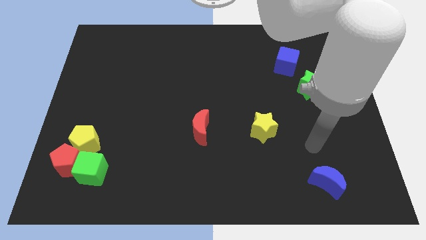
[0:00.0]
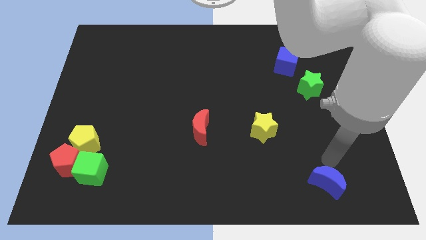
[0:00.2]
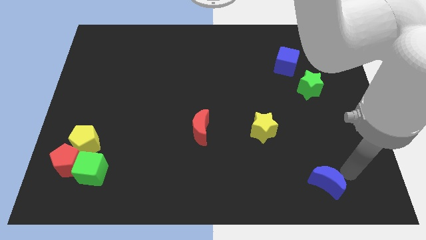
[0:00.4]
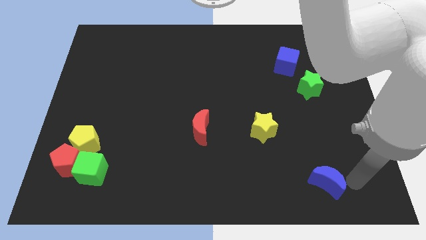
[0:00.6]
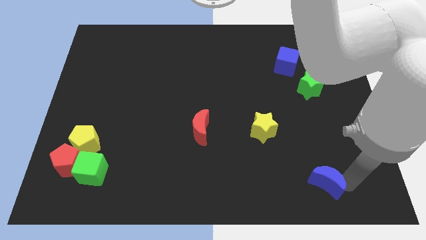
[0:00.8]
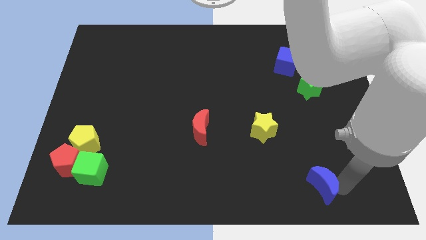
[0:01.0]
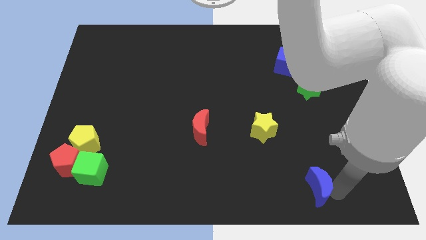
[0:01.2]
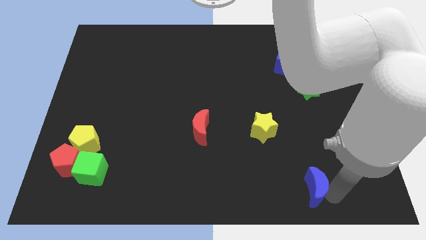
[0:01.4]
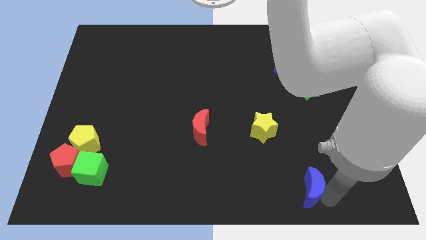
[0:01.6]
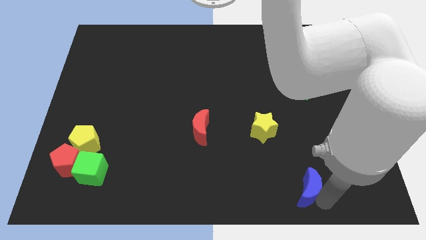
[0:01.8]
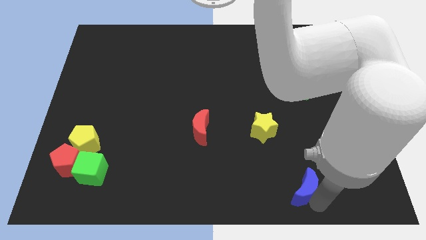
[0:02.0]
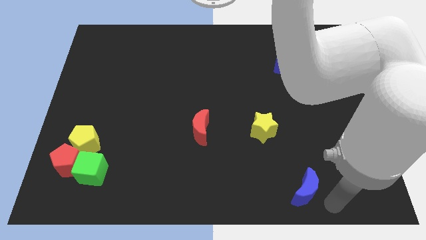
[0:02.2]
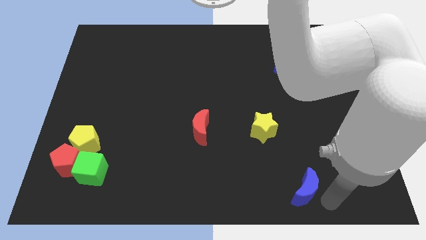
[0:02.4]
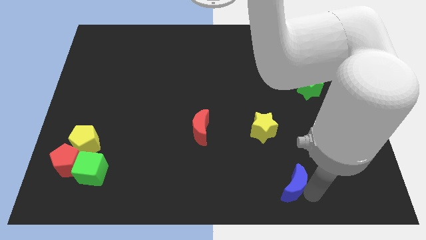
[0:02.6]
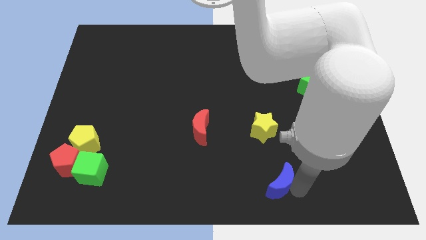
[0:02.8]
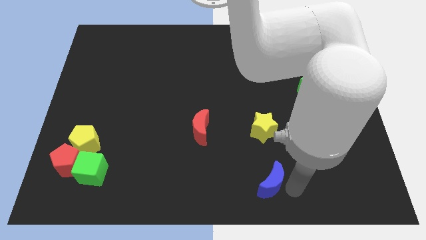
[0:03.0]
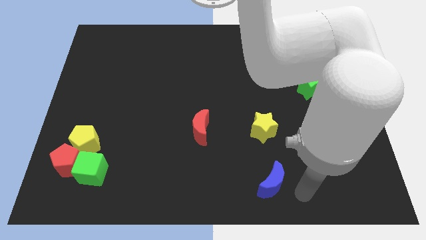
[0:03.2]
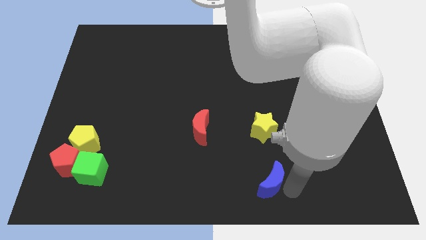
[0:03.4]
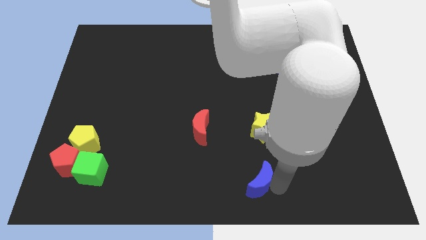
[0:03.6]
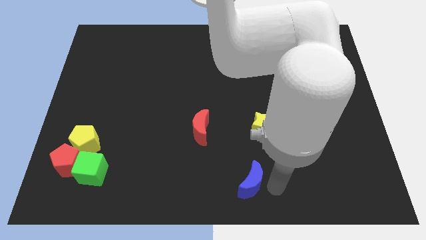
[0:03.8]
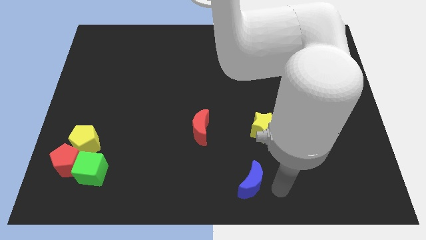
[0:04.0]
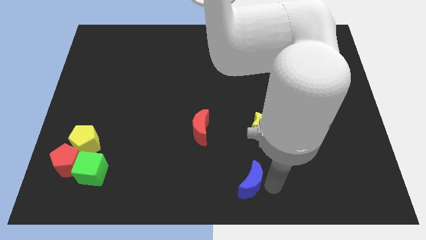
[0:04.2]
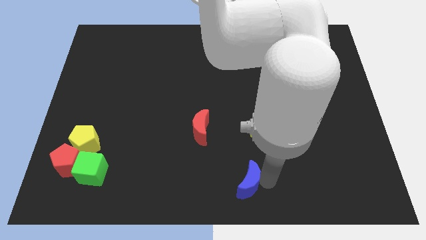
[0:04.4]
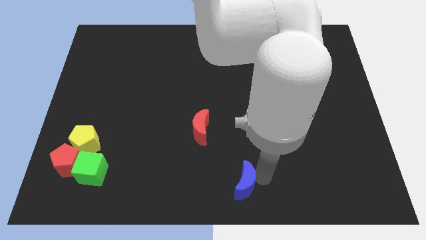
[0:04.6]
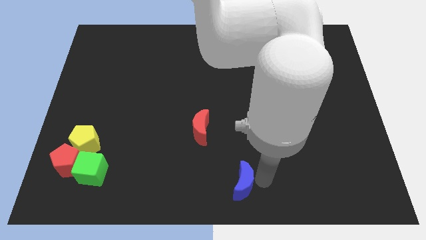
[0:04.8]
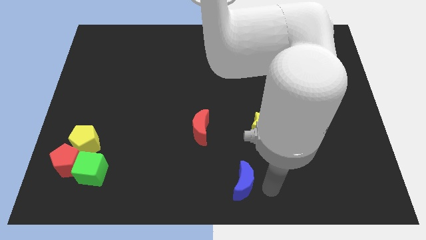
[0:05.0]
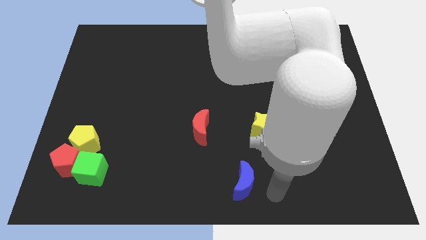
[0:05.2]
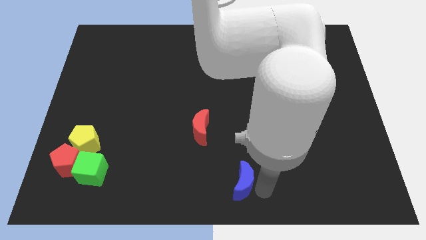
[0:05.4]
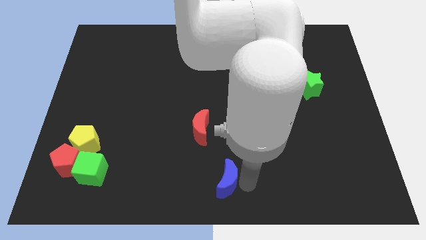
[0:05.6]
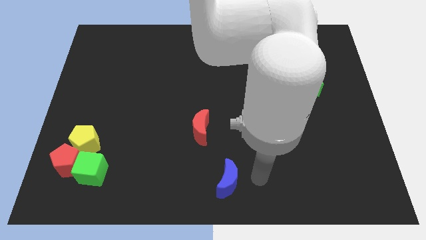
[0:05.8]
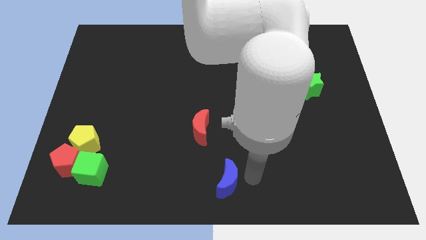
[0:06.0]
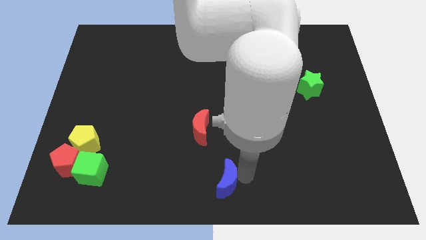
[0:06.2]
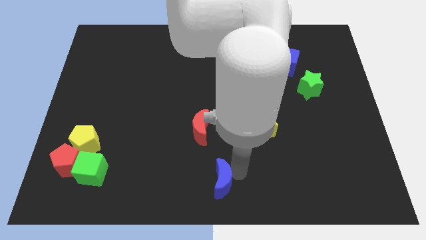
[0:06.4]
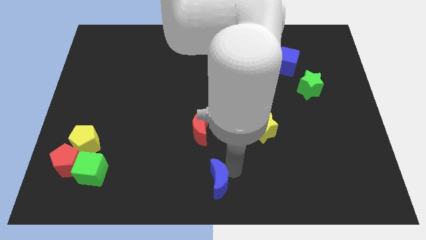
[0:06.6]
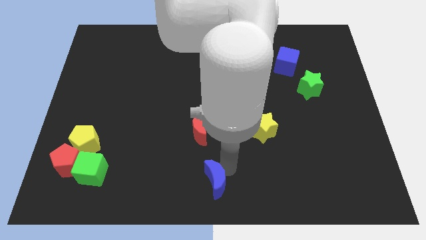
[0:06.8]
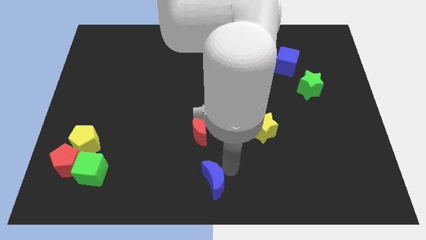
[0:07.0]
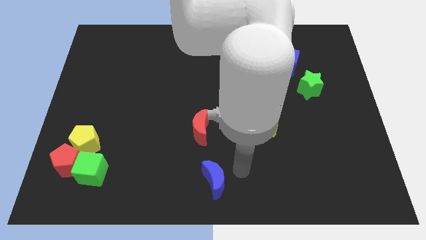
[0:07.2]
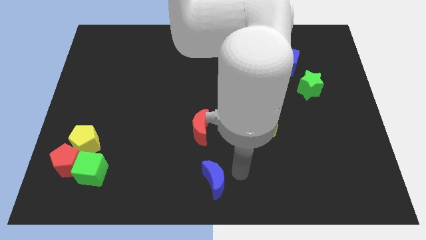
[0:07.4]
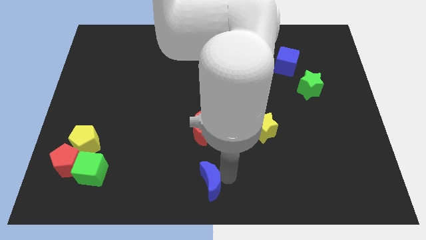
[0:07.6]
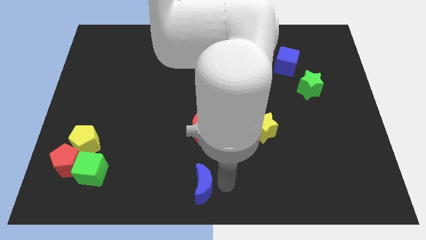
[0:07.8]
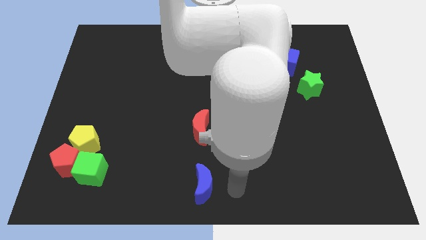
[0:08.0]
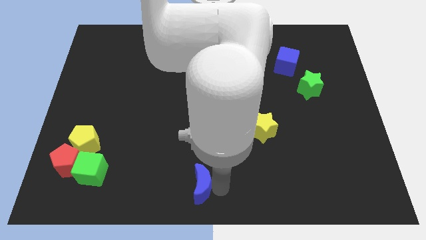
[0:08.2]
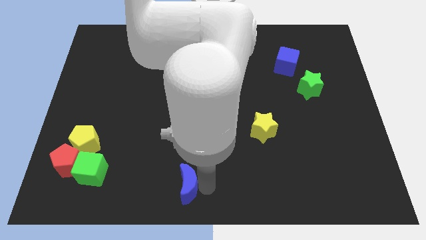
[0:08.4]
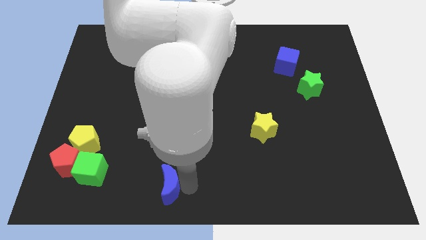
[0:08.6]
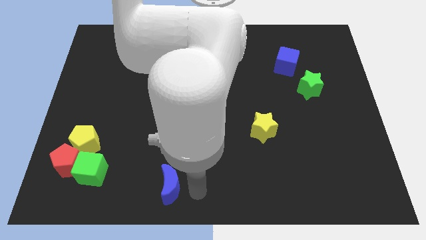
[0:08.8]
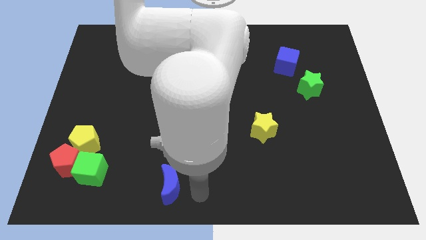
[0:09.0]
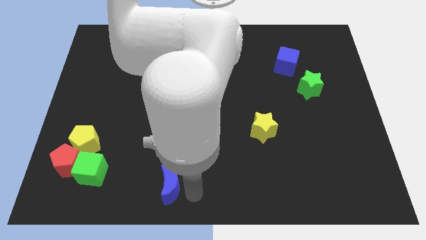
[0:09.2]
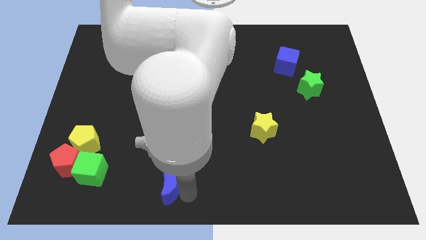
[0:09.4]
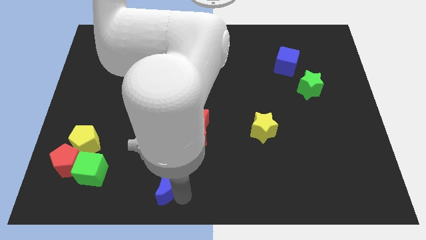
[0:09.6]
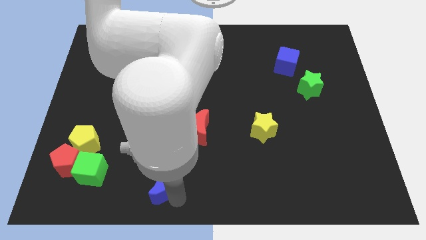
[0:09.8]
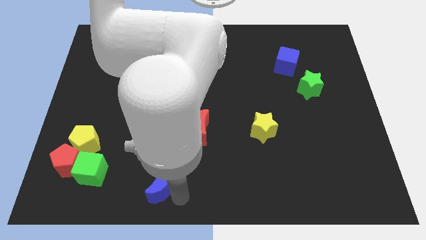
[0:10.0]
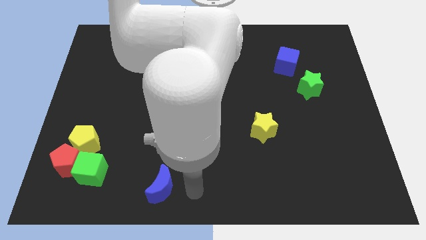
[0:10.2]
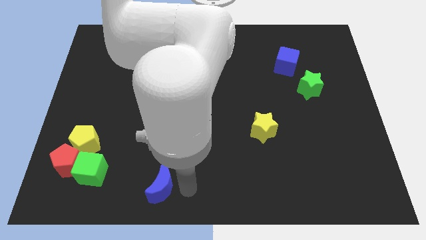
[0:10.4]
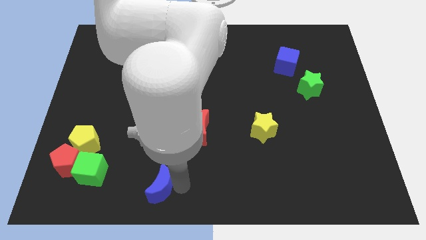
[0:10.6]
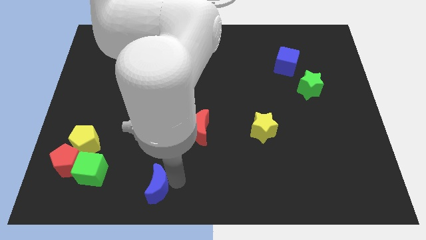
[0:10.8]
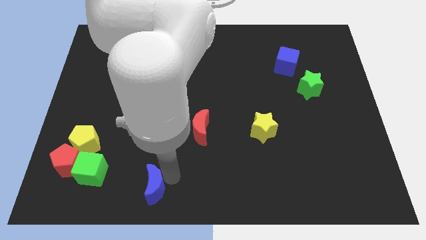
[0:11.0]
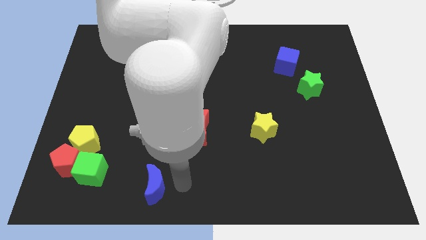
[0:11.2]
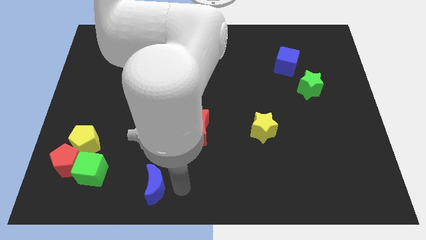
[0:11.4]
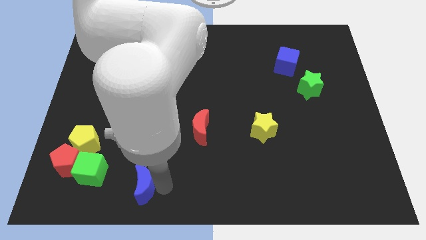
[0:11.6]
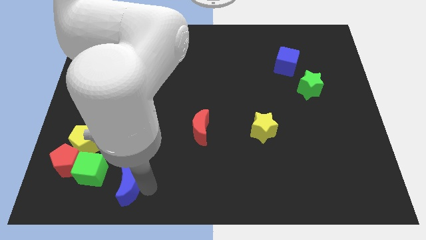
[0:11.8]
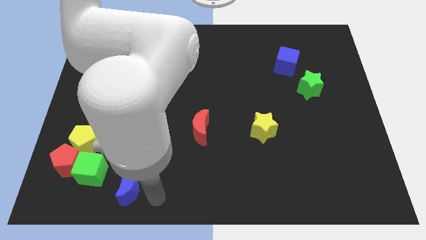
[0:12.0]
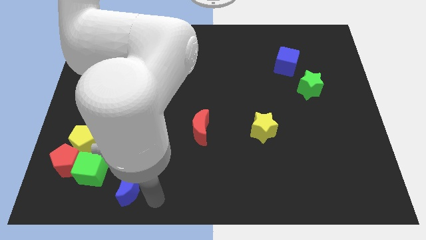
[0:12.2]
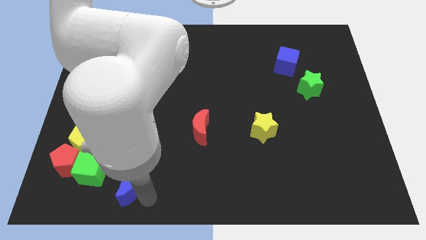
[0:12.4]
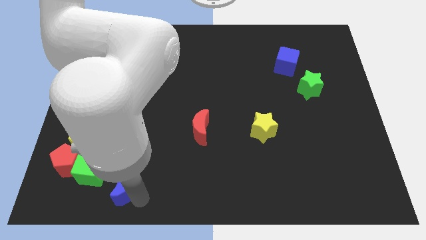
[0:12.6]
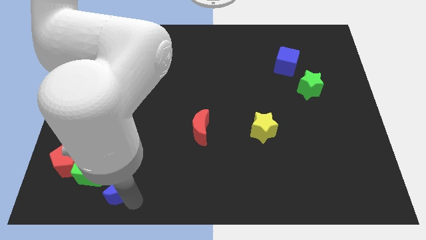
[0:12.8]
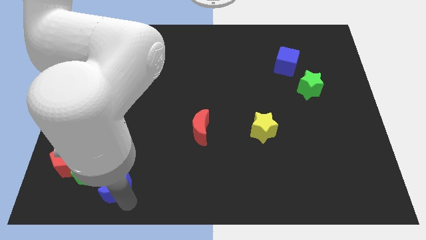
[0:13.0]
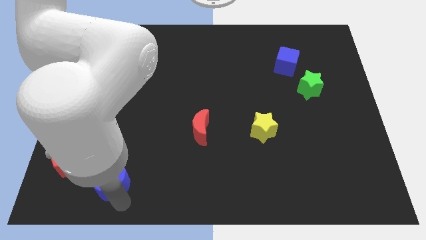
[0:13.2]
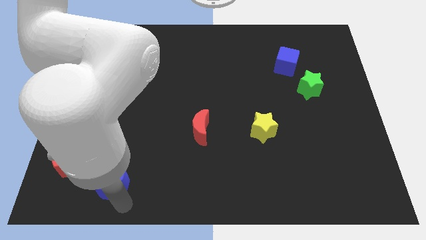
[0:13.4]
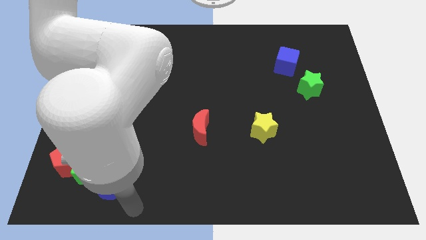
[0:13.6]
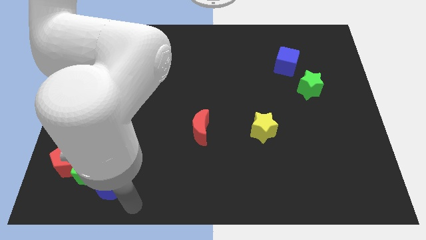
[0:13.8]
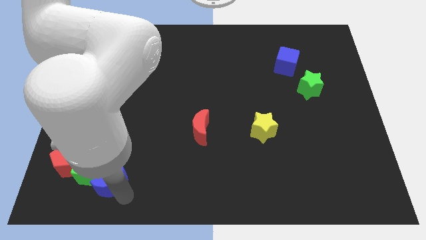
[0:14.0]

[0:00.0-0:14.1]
put the blue moon close to the green cube
